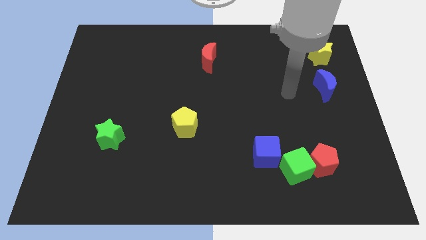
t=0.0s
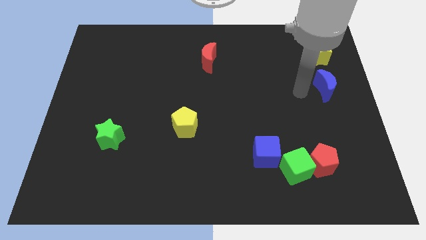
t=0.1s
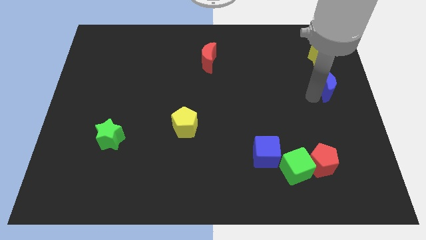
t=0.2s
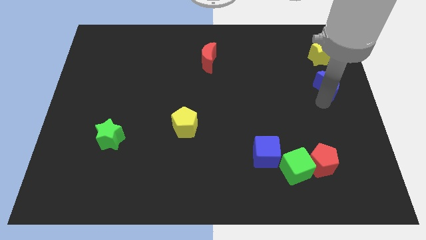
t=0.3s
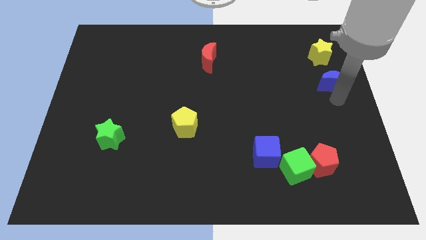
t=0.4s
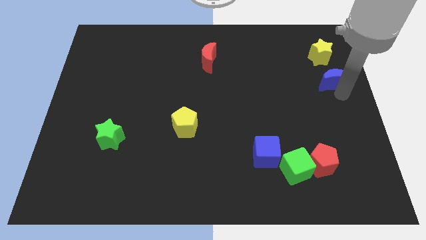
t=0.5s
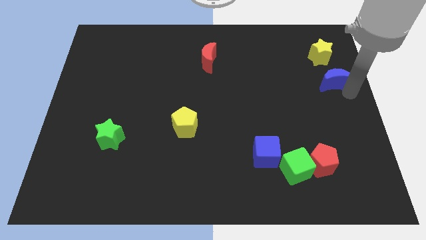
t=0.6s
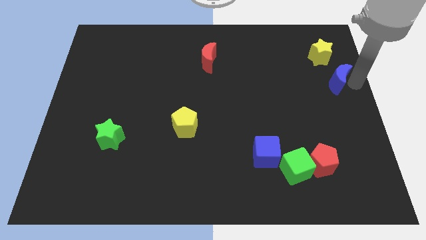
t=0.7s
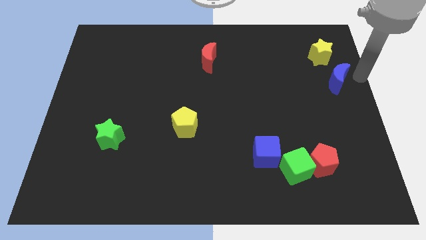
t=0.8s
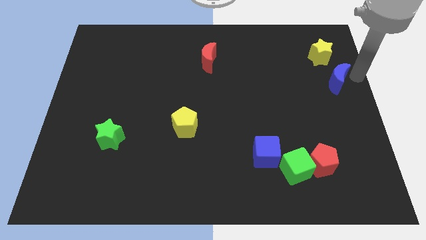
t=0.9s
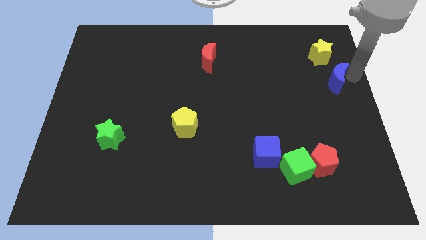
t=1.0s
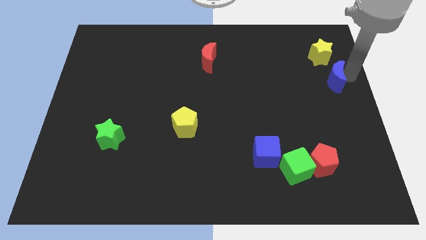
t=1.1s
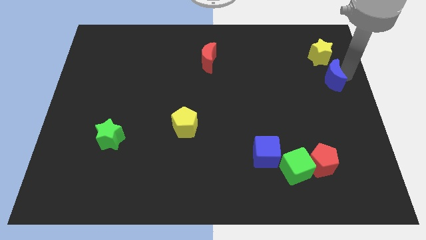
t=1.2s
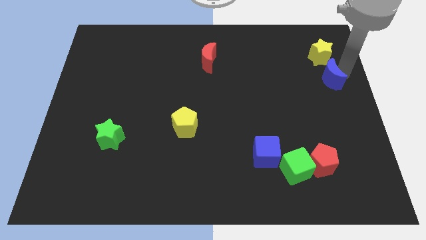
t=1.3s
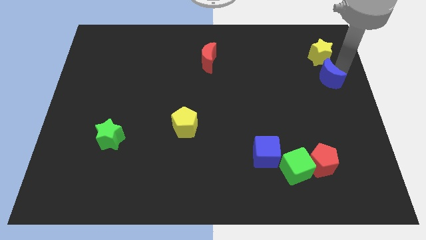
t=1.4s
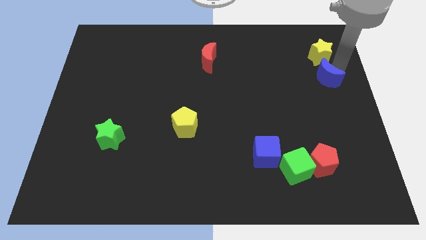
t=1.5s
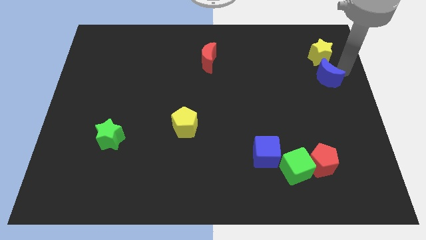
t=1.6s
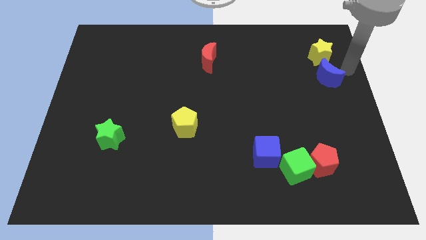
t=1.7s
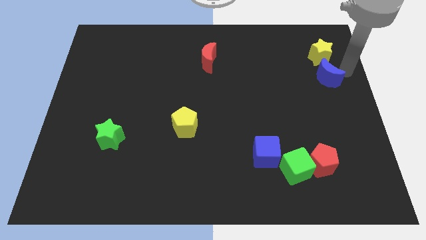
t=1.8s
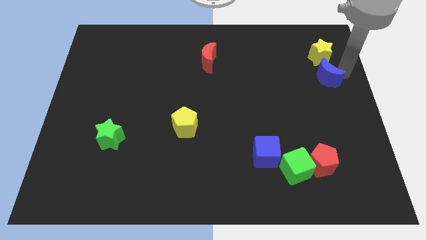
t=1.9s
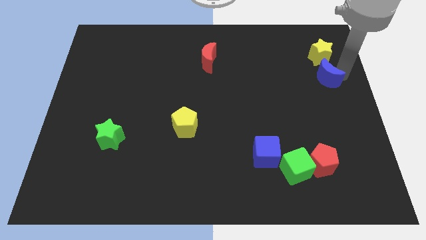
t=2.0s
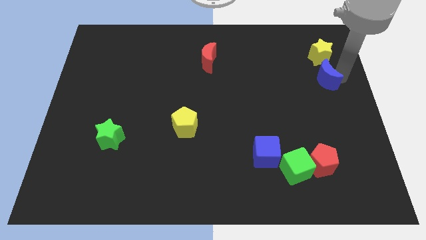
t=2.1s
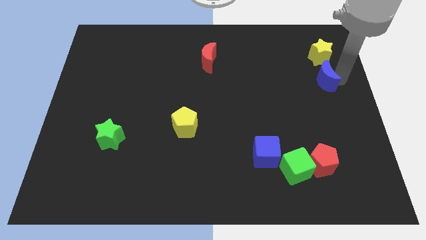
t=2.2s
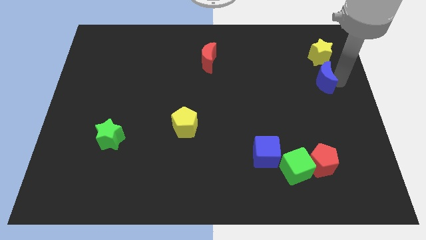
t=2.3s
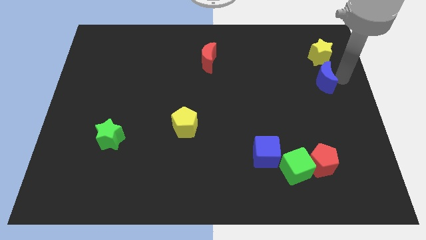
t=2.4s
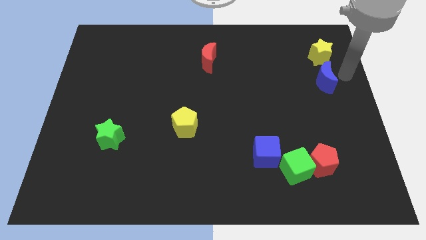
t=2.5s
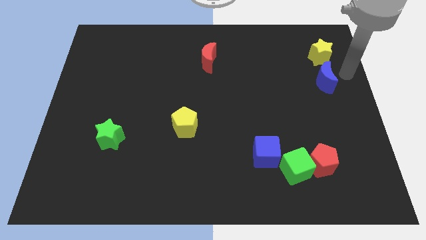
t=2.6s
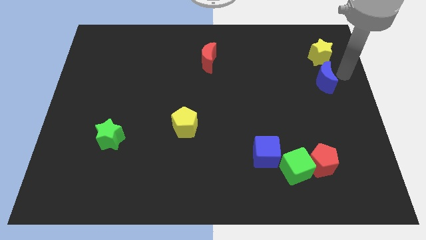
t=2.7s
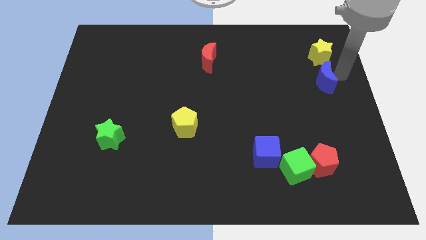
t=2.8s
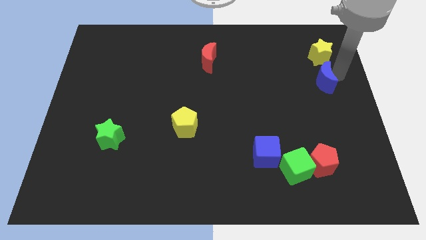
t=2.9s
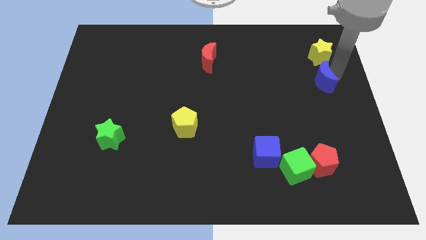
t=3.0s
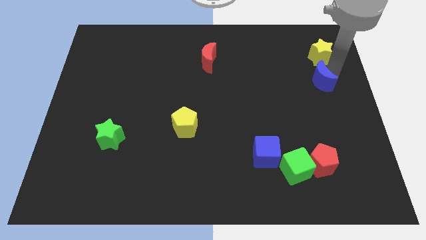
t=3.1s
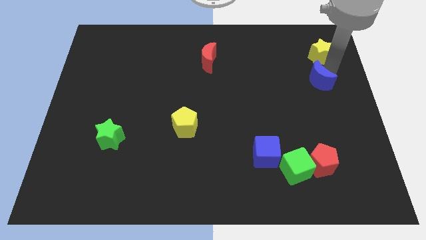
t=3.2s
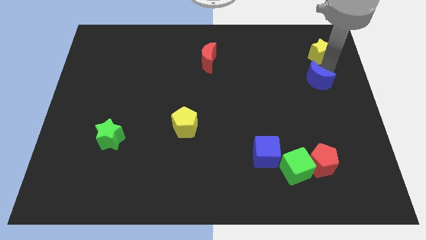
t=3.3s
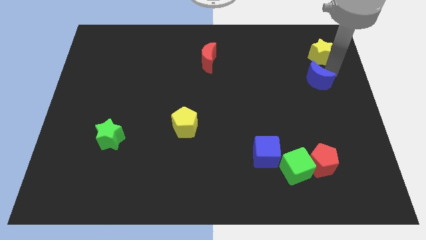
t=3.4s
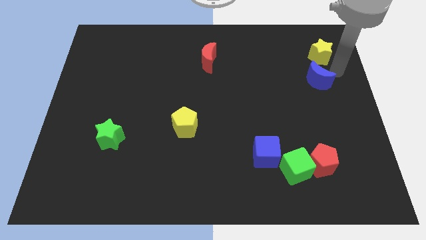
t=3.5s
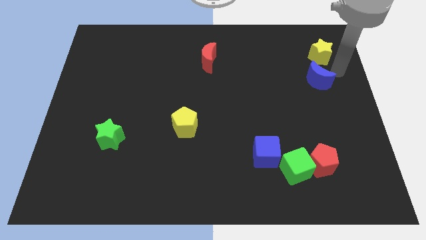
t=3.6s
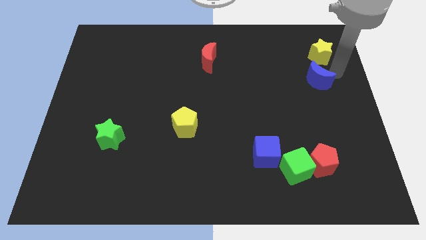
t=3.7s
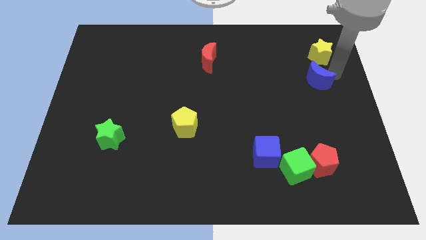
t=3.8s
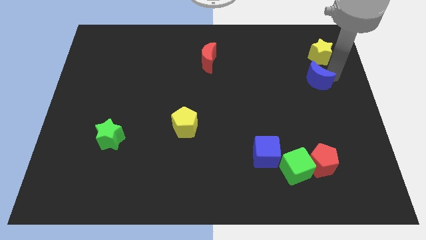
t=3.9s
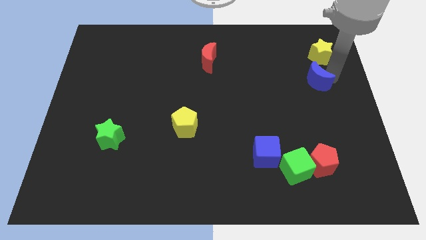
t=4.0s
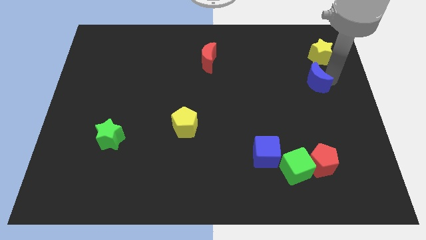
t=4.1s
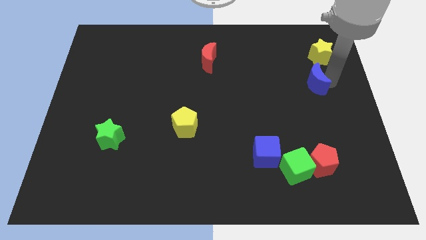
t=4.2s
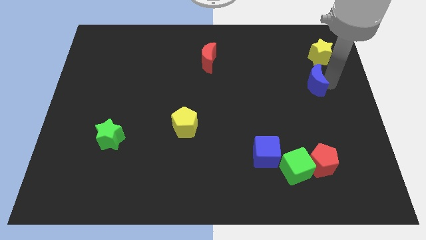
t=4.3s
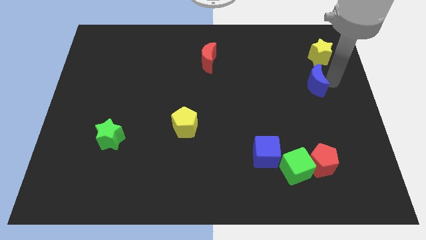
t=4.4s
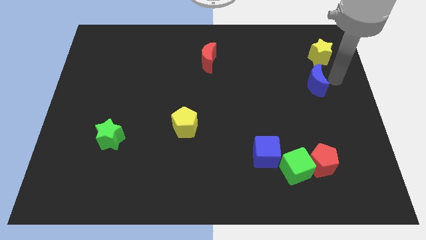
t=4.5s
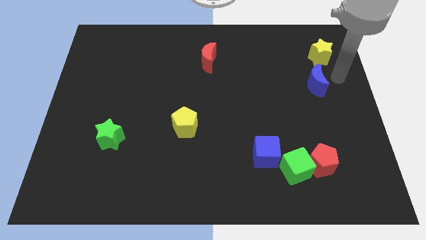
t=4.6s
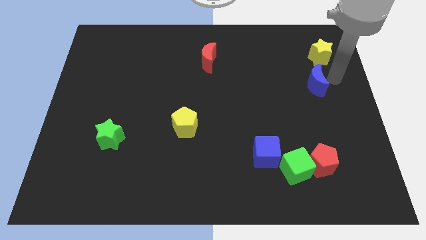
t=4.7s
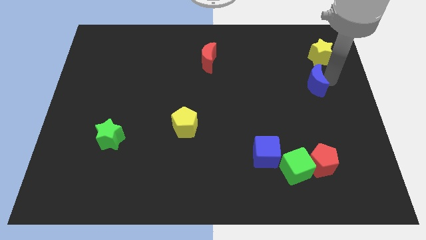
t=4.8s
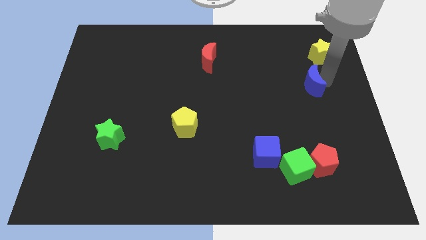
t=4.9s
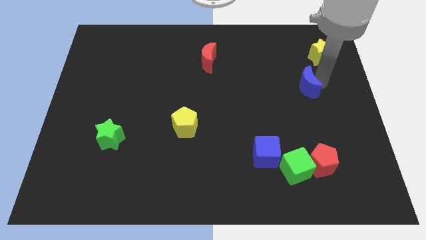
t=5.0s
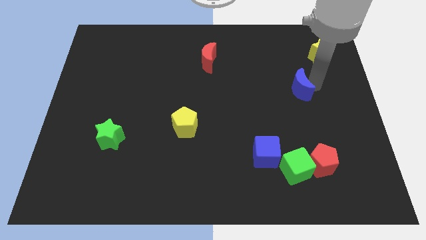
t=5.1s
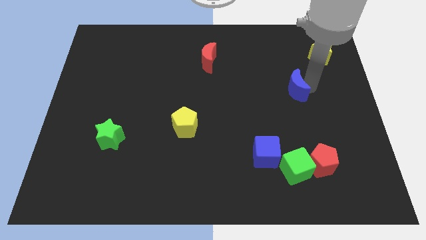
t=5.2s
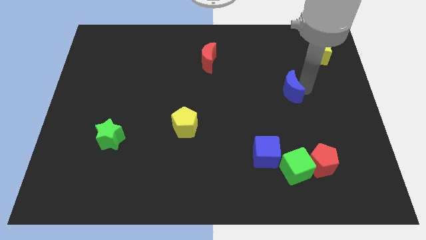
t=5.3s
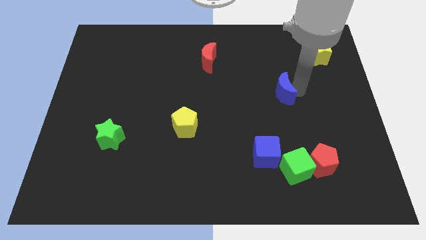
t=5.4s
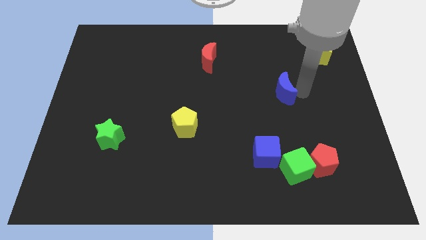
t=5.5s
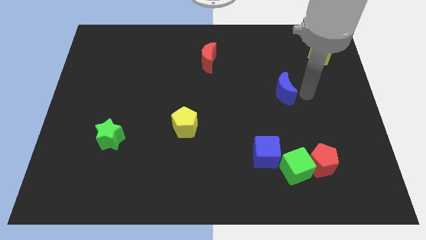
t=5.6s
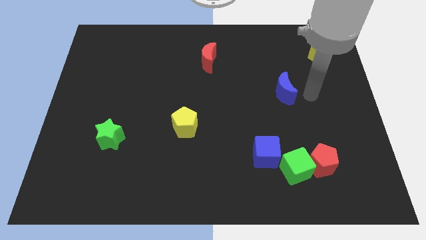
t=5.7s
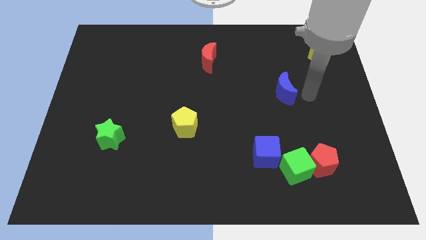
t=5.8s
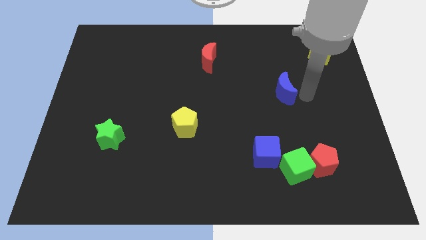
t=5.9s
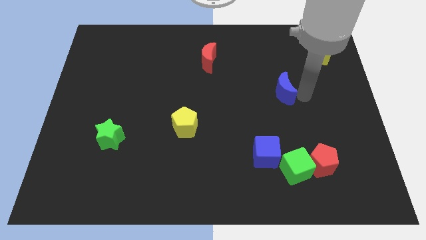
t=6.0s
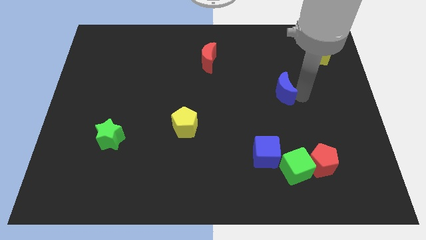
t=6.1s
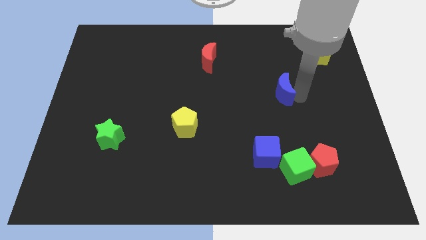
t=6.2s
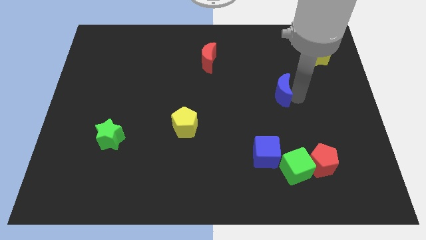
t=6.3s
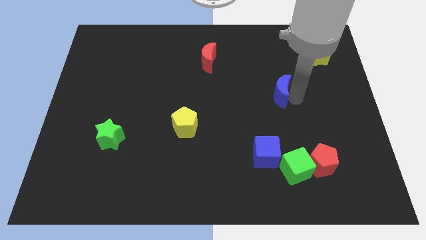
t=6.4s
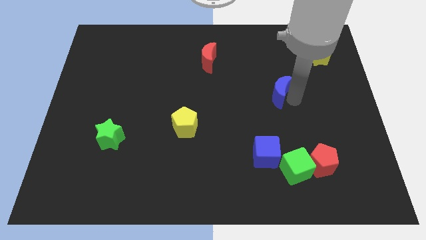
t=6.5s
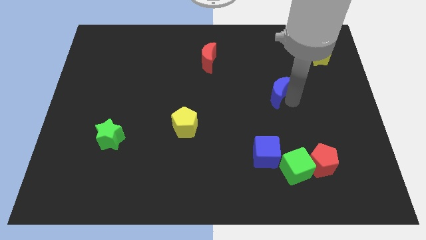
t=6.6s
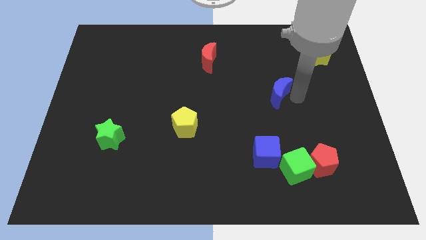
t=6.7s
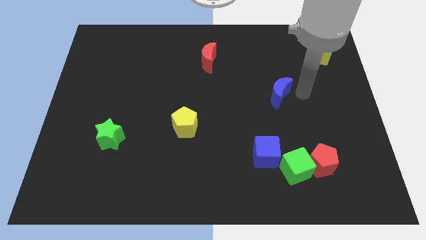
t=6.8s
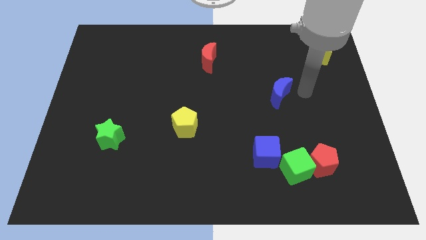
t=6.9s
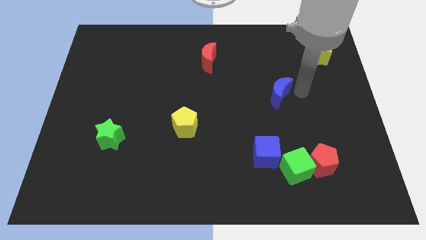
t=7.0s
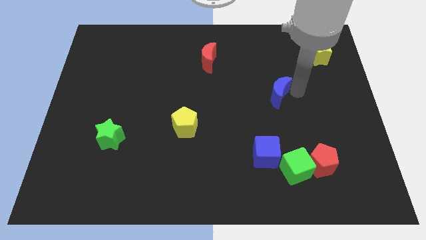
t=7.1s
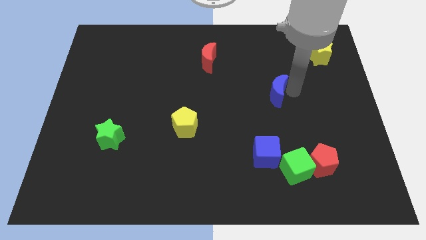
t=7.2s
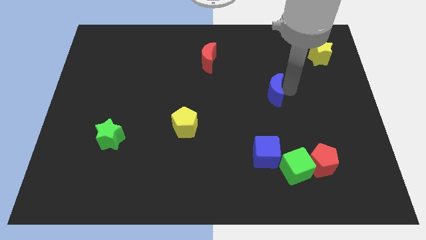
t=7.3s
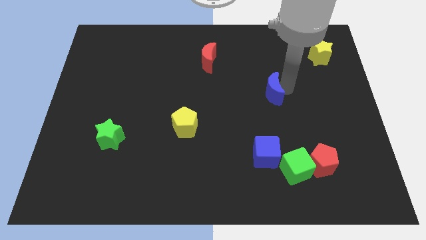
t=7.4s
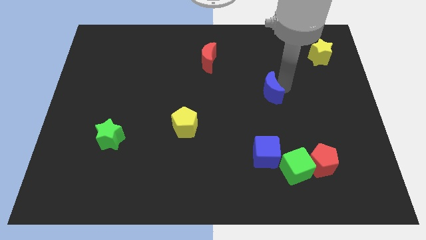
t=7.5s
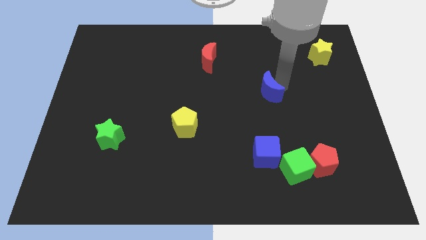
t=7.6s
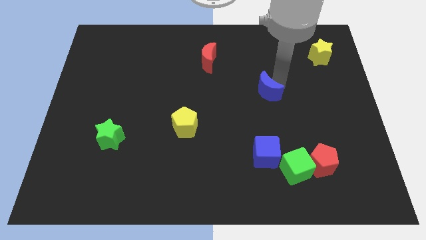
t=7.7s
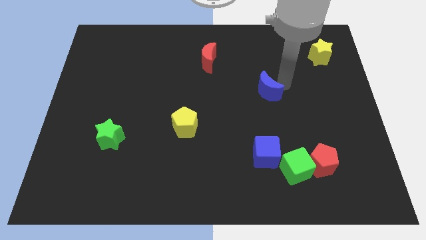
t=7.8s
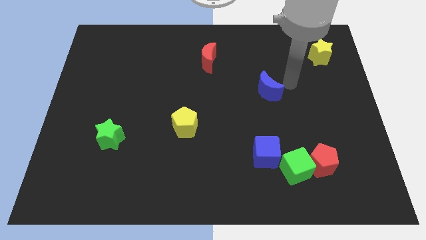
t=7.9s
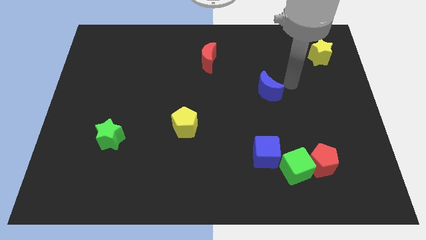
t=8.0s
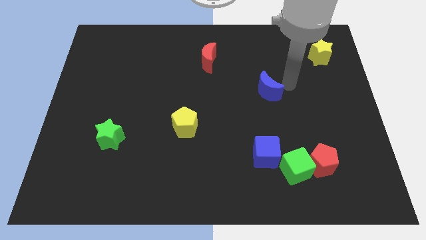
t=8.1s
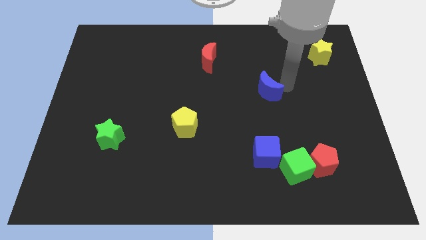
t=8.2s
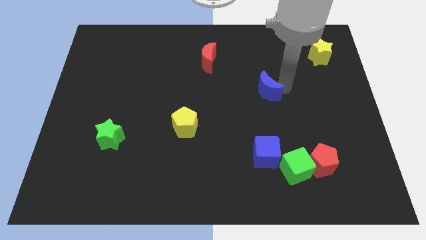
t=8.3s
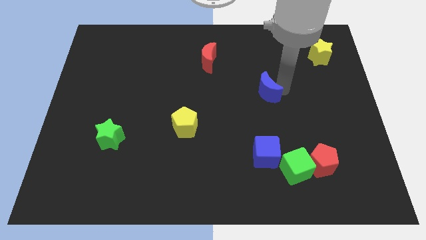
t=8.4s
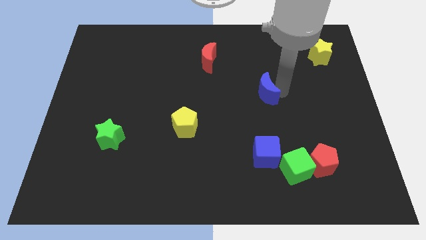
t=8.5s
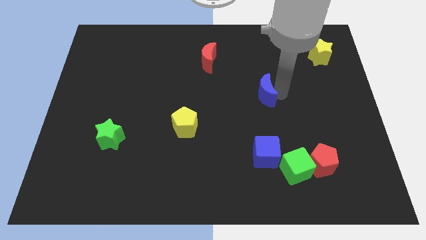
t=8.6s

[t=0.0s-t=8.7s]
push the blue moon to the middle of the board
